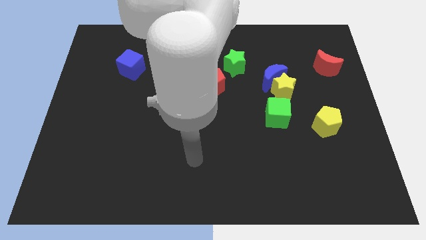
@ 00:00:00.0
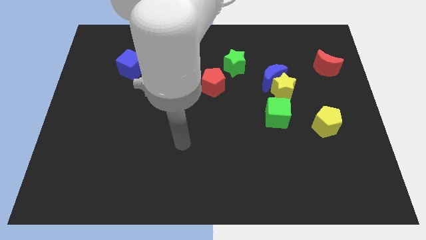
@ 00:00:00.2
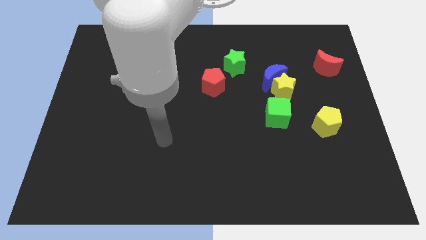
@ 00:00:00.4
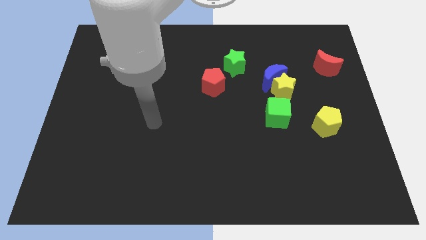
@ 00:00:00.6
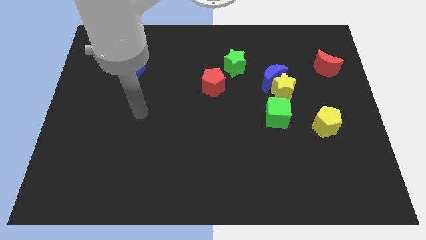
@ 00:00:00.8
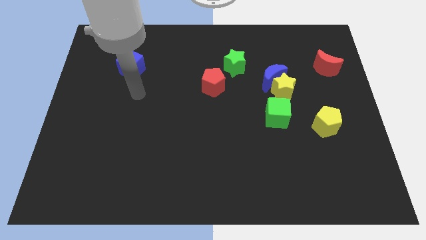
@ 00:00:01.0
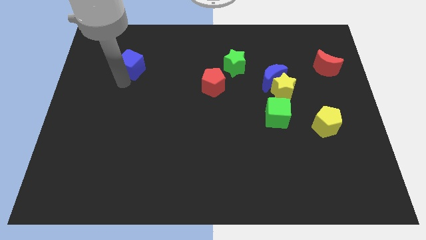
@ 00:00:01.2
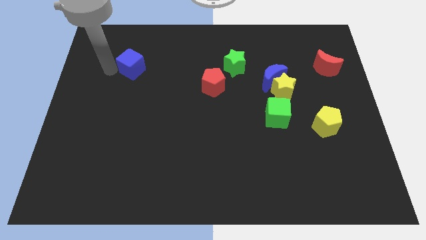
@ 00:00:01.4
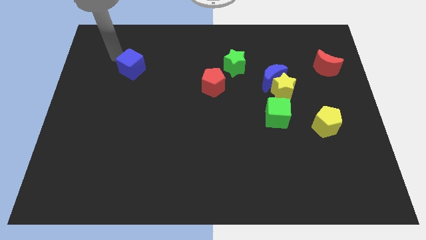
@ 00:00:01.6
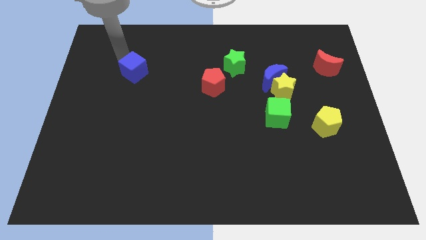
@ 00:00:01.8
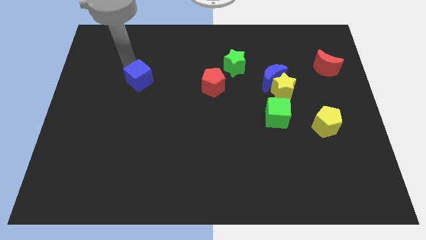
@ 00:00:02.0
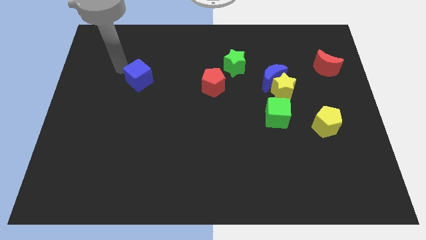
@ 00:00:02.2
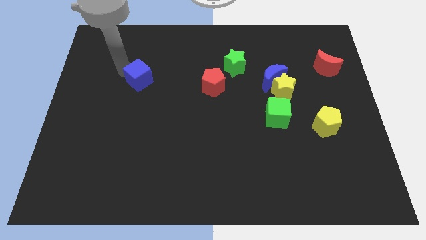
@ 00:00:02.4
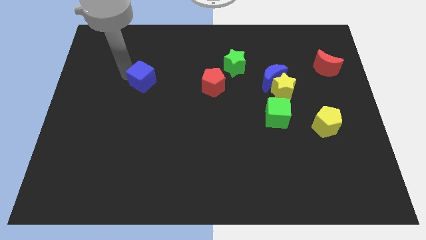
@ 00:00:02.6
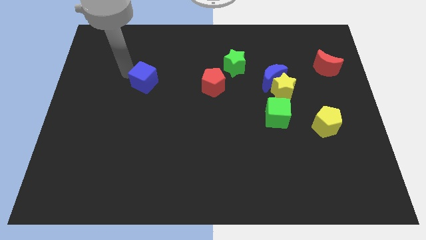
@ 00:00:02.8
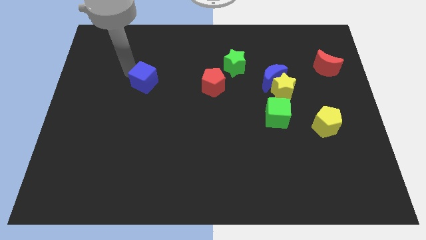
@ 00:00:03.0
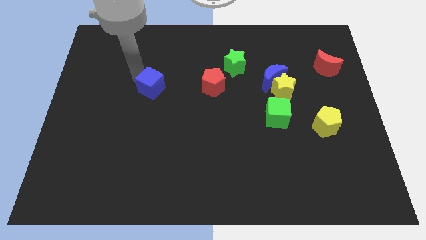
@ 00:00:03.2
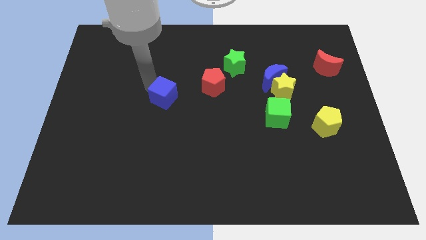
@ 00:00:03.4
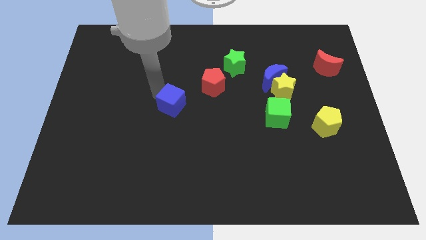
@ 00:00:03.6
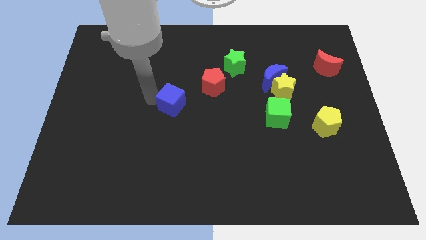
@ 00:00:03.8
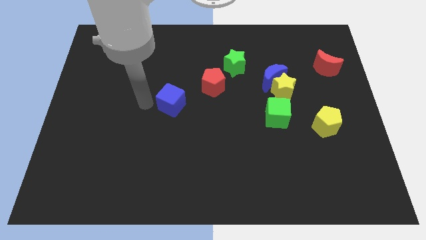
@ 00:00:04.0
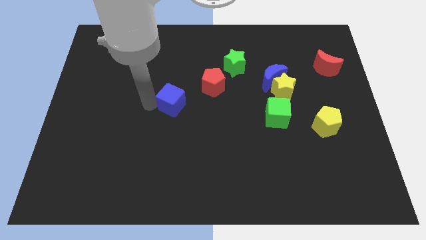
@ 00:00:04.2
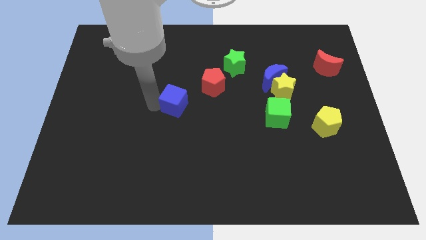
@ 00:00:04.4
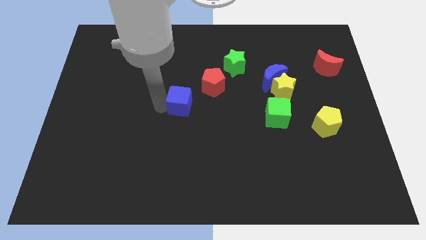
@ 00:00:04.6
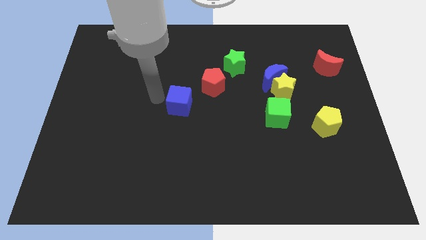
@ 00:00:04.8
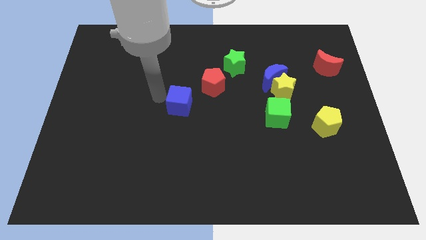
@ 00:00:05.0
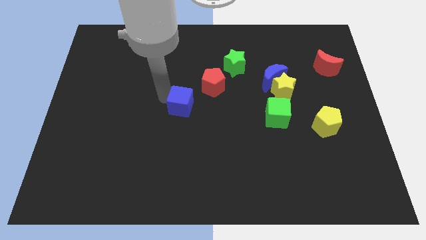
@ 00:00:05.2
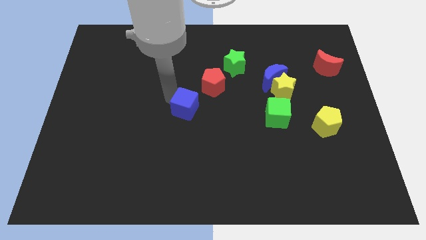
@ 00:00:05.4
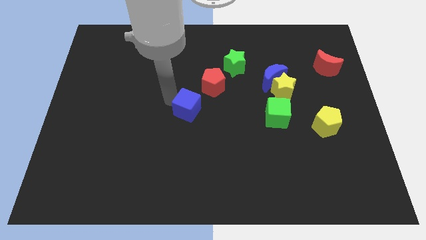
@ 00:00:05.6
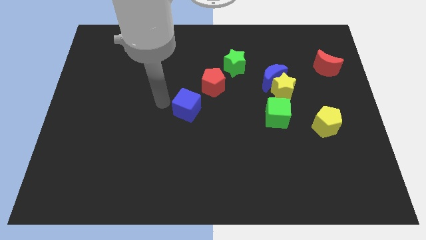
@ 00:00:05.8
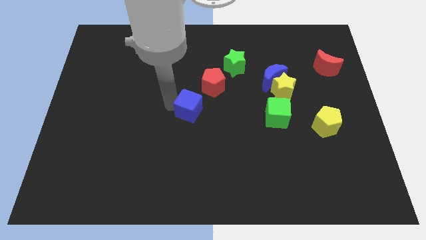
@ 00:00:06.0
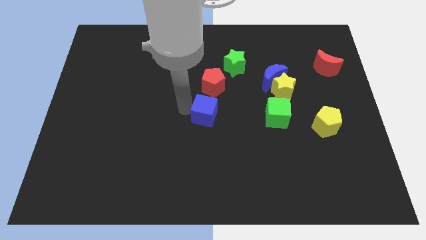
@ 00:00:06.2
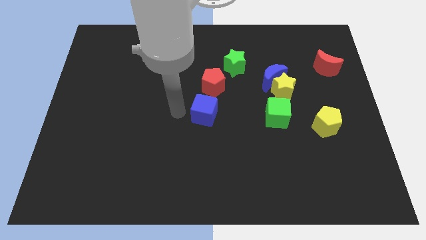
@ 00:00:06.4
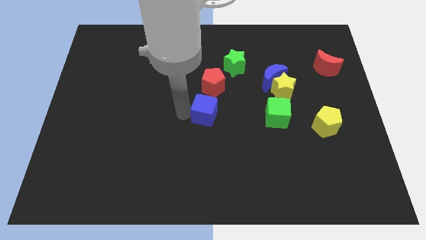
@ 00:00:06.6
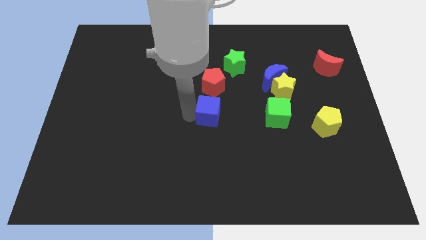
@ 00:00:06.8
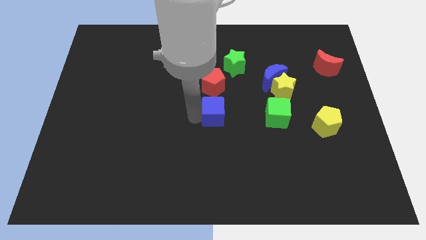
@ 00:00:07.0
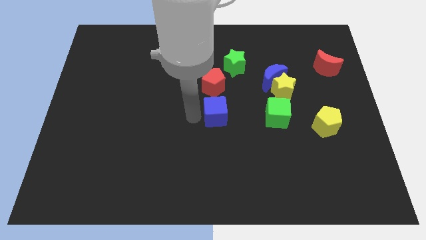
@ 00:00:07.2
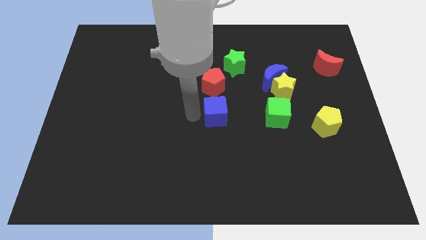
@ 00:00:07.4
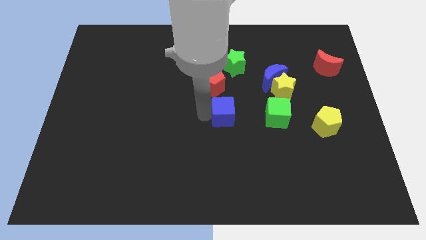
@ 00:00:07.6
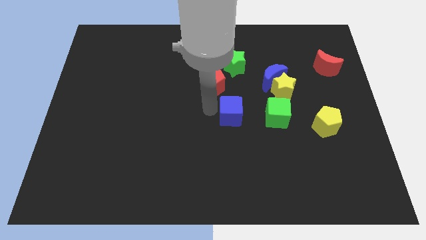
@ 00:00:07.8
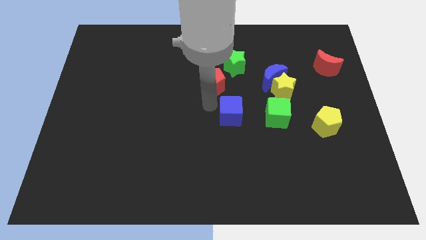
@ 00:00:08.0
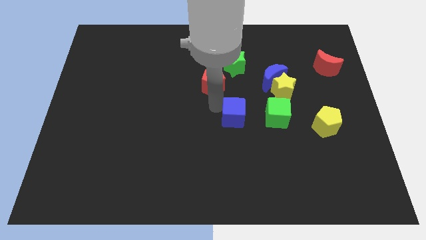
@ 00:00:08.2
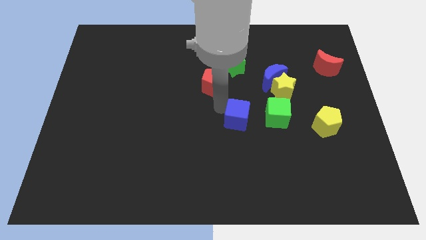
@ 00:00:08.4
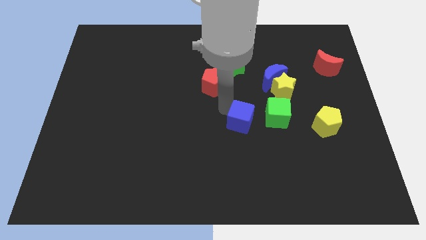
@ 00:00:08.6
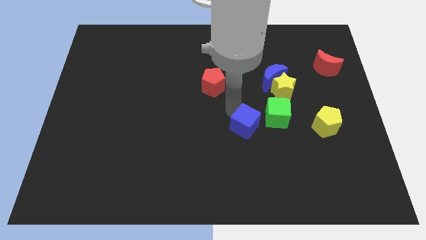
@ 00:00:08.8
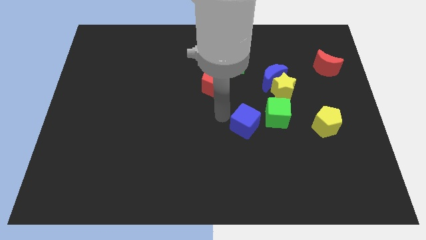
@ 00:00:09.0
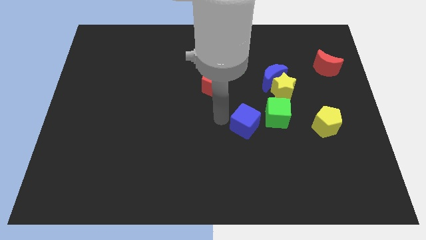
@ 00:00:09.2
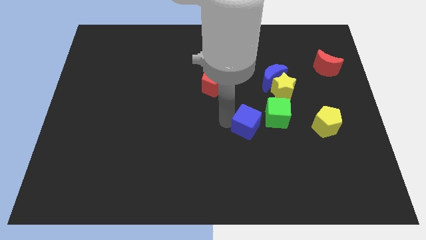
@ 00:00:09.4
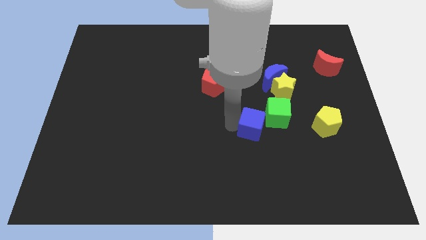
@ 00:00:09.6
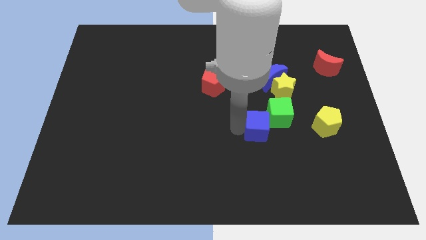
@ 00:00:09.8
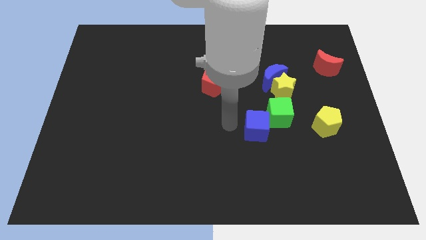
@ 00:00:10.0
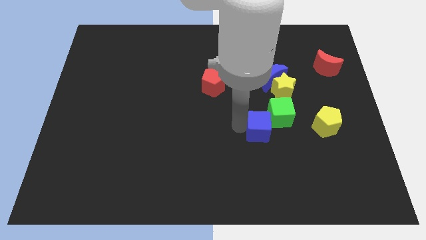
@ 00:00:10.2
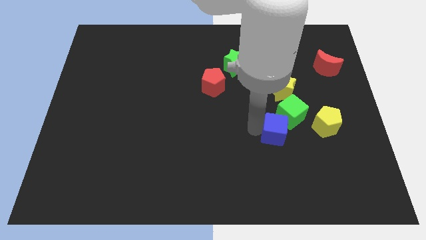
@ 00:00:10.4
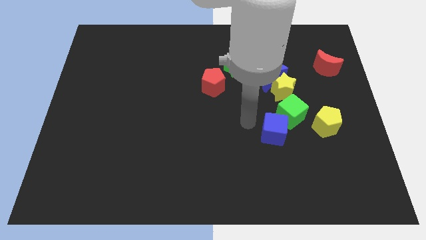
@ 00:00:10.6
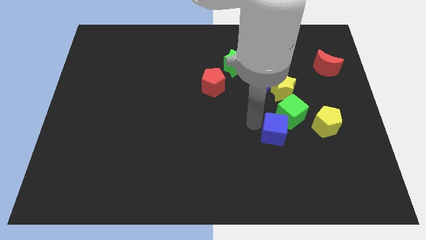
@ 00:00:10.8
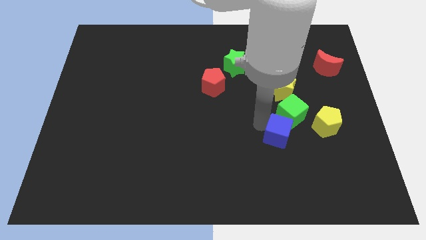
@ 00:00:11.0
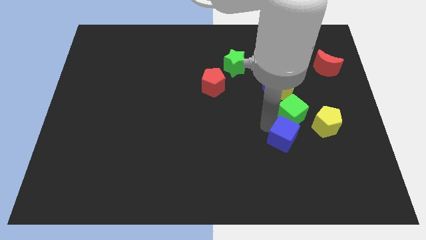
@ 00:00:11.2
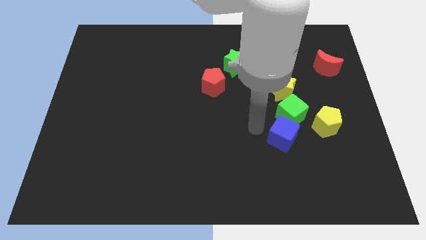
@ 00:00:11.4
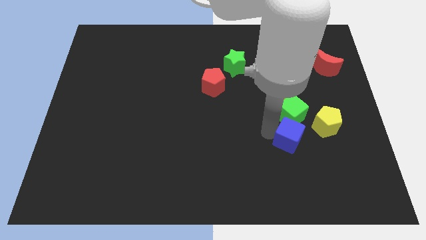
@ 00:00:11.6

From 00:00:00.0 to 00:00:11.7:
slide the blue cube to the bottom left side of the yellow pentagon

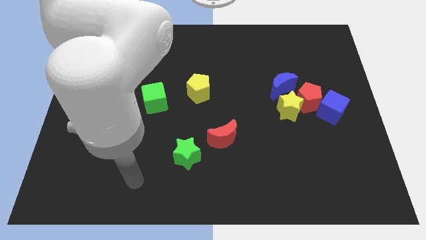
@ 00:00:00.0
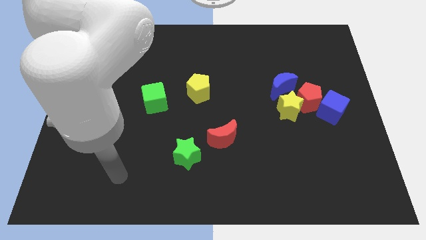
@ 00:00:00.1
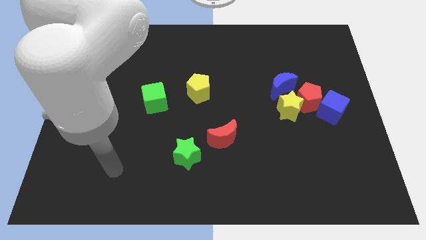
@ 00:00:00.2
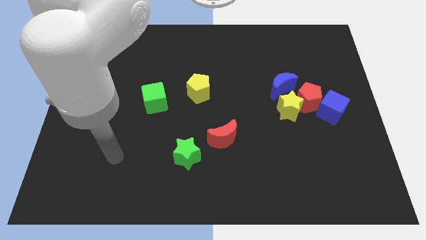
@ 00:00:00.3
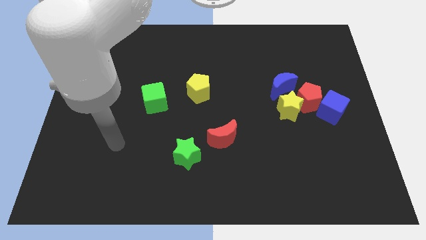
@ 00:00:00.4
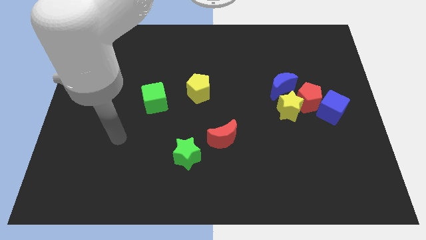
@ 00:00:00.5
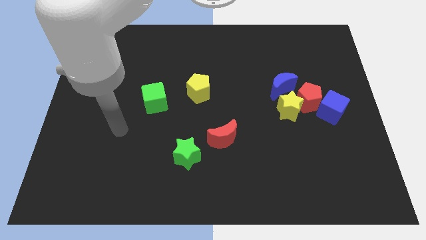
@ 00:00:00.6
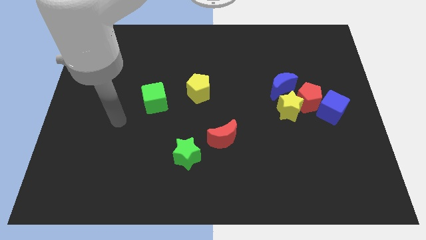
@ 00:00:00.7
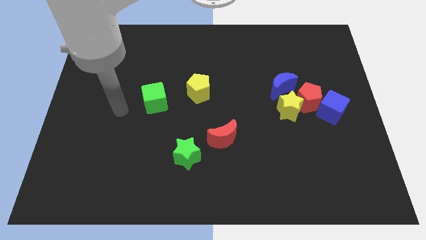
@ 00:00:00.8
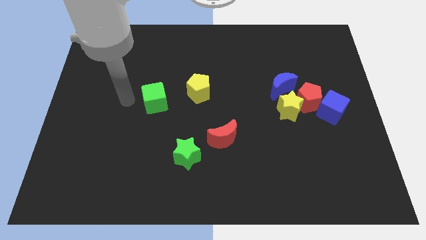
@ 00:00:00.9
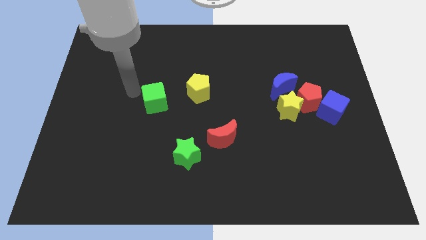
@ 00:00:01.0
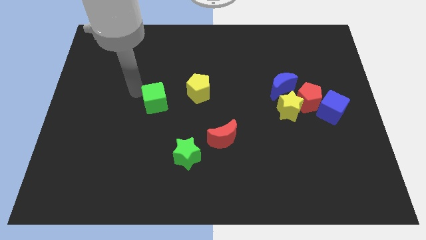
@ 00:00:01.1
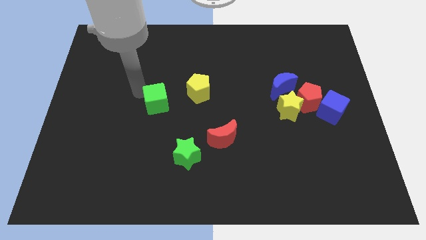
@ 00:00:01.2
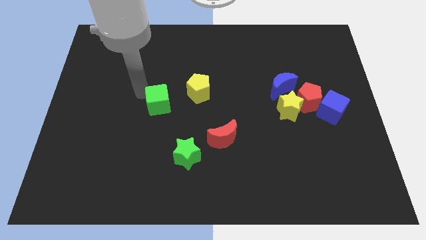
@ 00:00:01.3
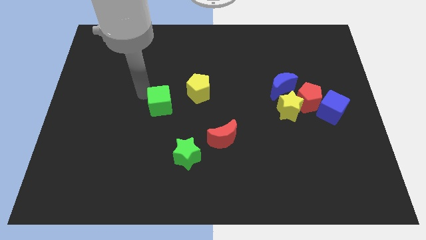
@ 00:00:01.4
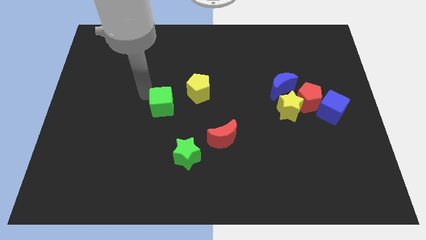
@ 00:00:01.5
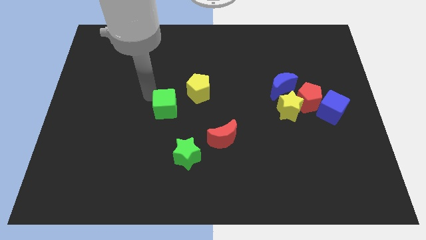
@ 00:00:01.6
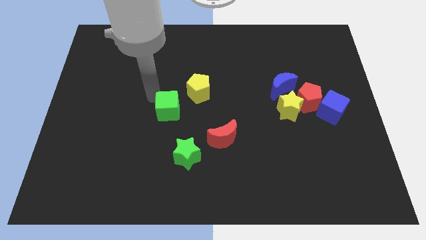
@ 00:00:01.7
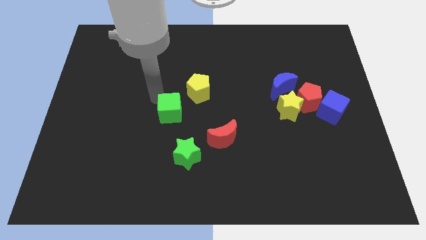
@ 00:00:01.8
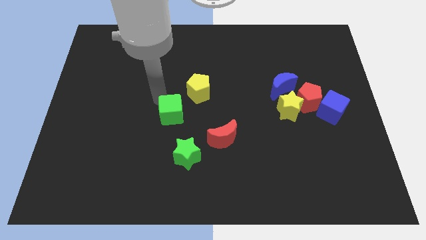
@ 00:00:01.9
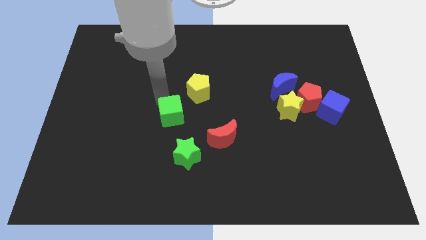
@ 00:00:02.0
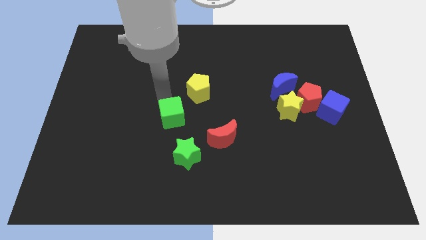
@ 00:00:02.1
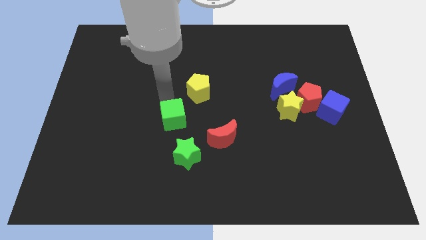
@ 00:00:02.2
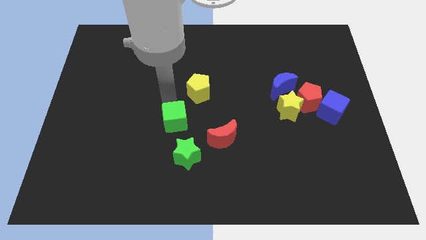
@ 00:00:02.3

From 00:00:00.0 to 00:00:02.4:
push the green cube to the bottom side of the yellow pentagon
